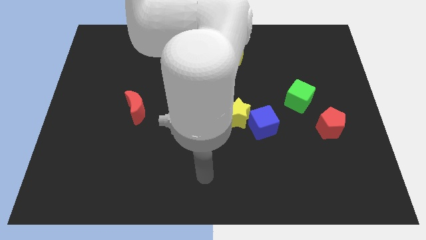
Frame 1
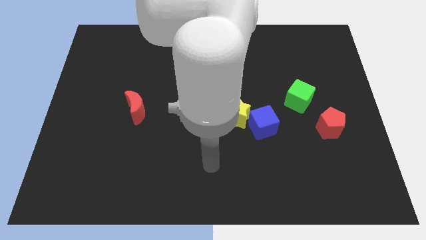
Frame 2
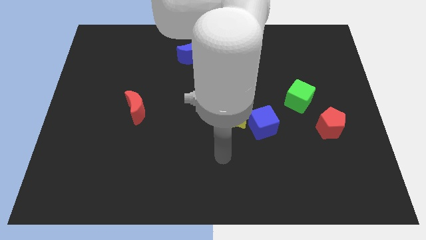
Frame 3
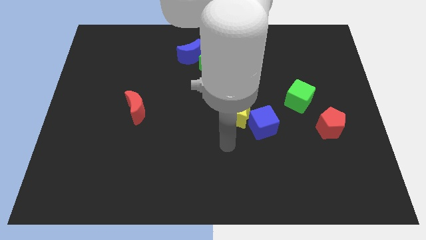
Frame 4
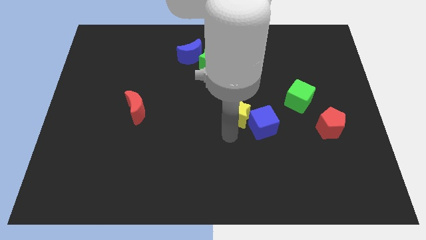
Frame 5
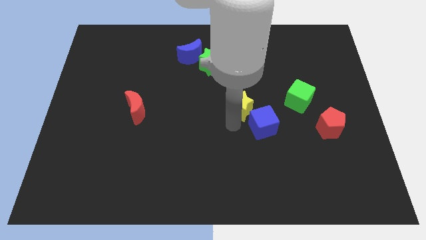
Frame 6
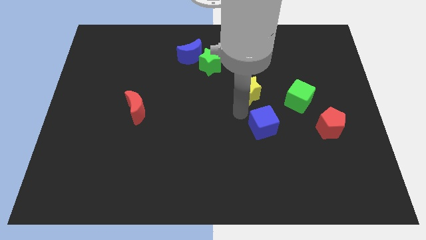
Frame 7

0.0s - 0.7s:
pull the blue cube apart from the yellow star

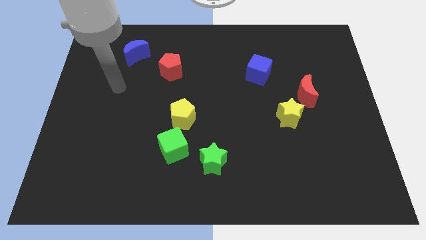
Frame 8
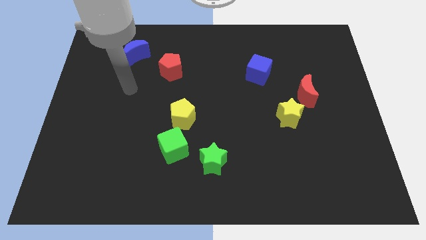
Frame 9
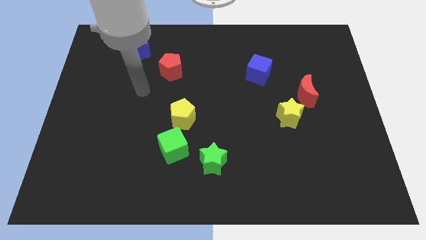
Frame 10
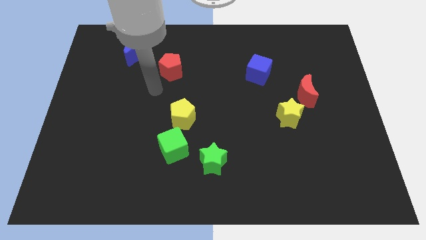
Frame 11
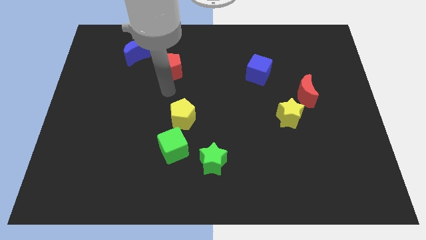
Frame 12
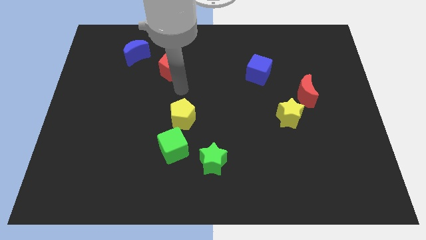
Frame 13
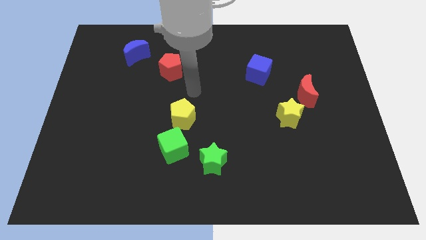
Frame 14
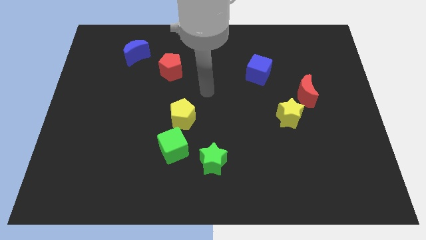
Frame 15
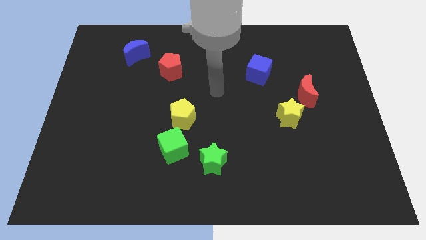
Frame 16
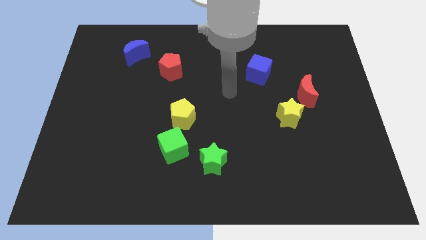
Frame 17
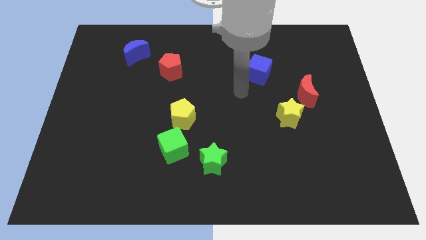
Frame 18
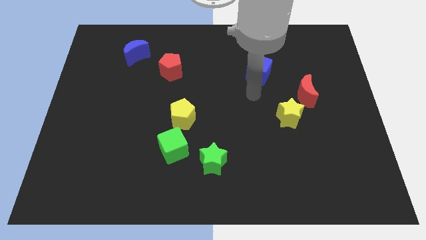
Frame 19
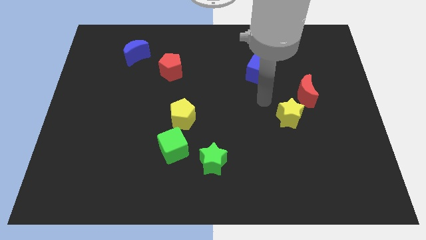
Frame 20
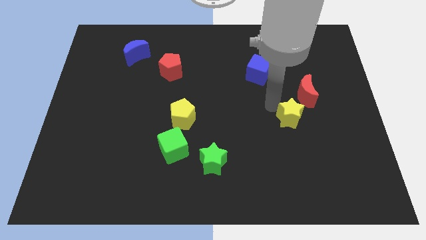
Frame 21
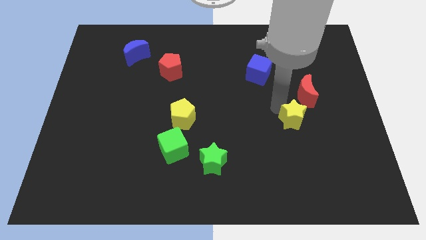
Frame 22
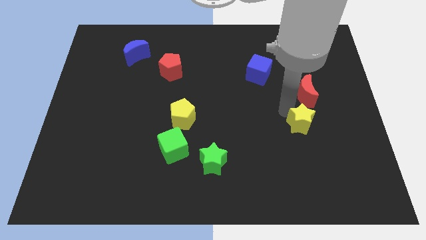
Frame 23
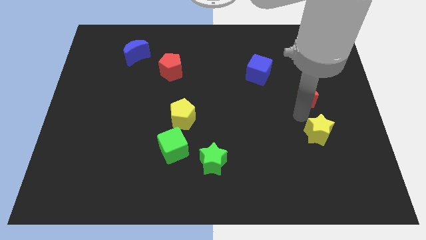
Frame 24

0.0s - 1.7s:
separate the red moon from the yellow star

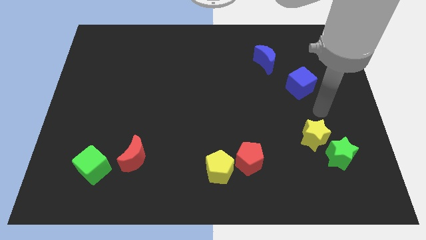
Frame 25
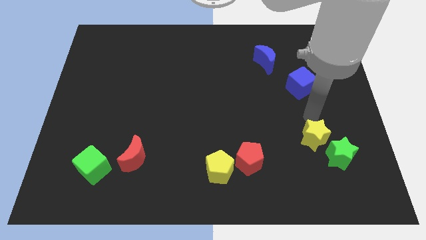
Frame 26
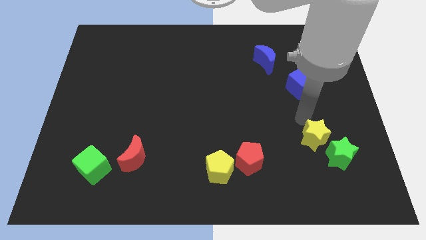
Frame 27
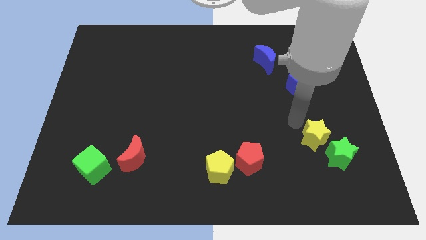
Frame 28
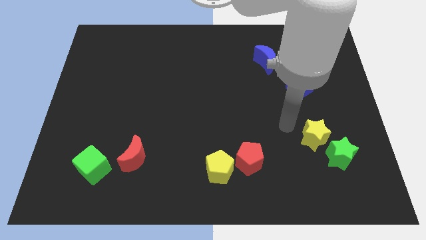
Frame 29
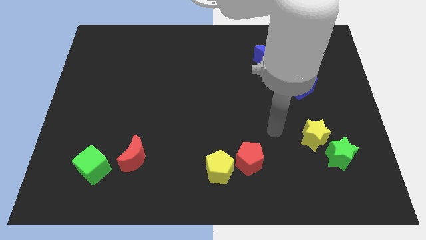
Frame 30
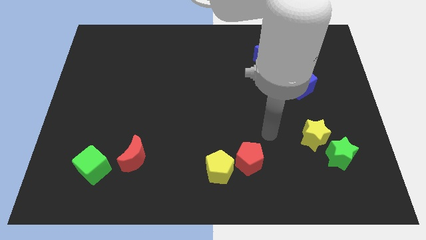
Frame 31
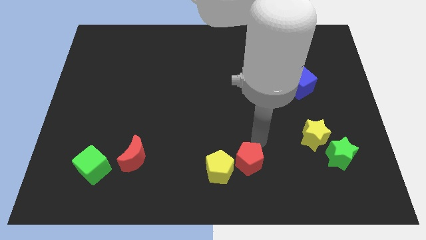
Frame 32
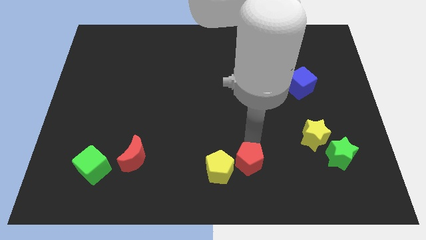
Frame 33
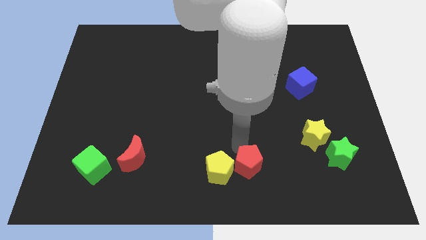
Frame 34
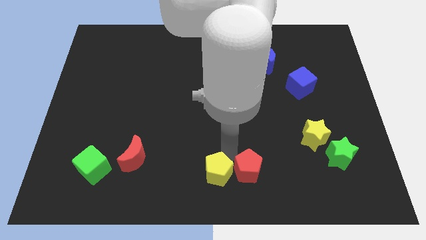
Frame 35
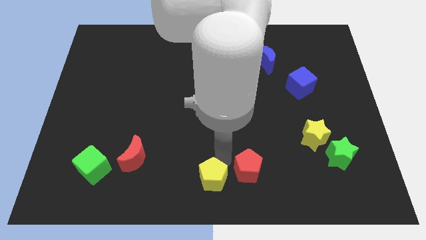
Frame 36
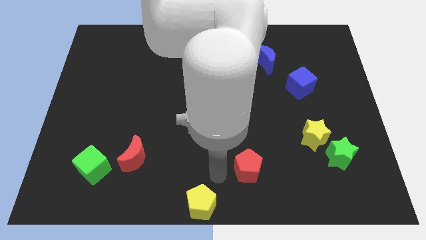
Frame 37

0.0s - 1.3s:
separate the red pentagon from the yellow pentagon

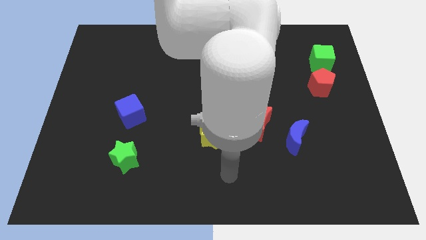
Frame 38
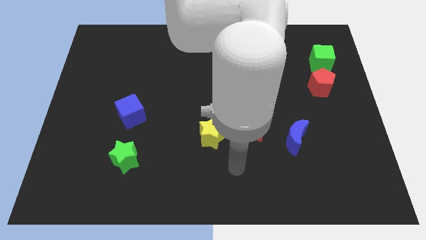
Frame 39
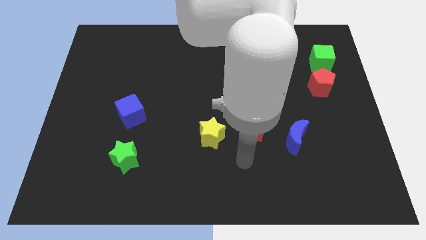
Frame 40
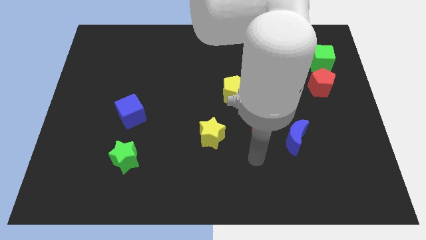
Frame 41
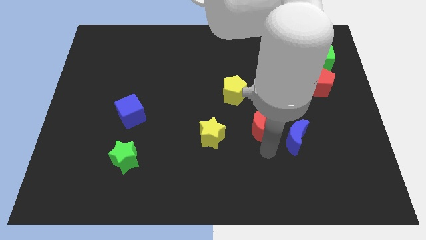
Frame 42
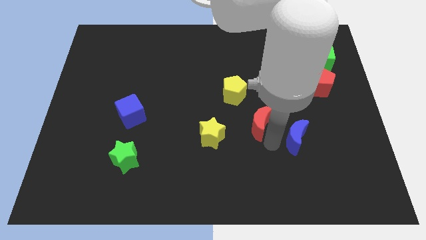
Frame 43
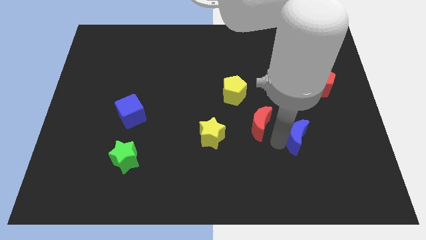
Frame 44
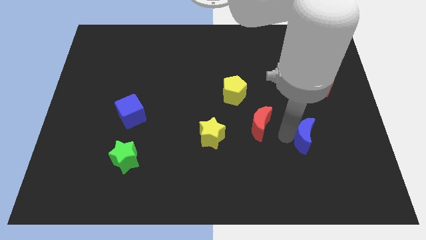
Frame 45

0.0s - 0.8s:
move the red moon away from the blue moon

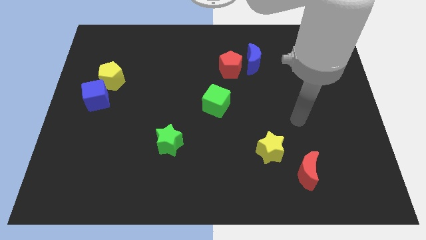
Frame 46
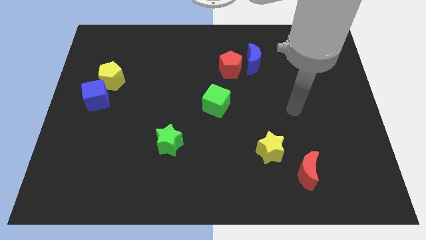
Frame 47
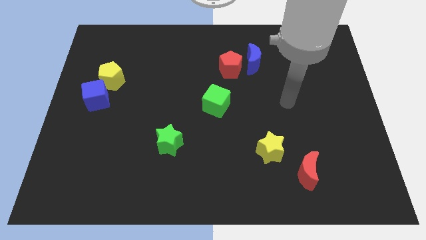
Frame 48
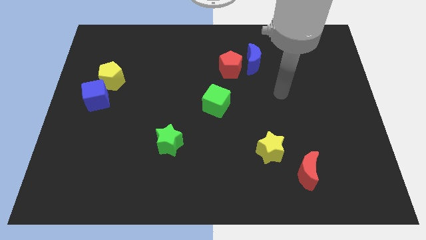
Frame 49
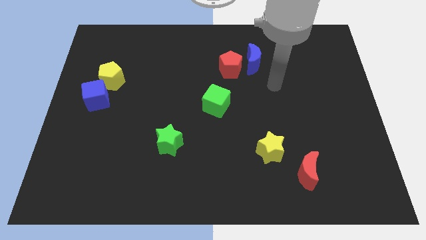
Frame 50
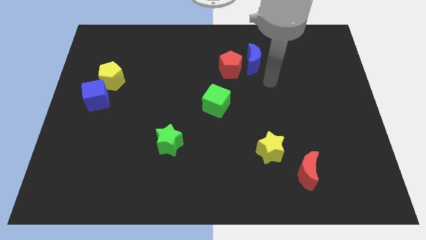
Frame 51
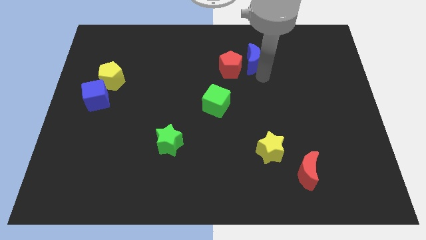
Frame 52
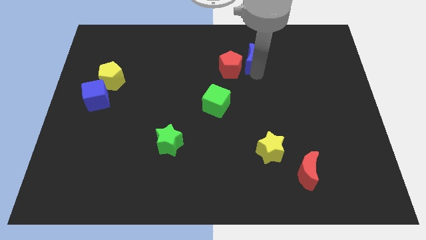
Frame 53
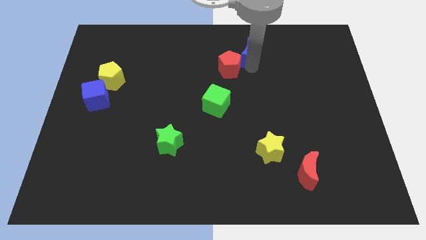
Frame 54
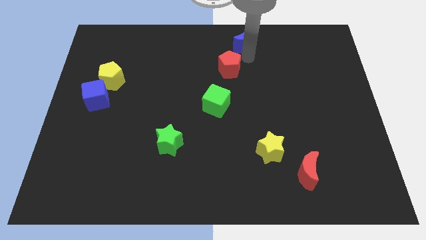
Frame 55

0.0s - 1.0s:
move the red pentagon away from the blue moon

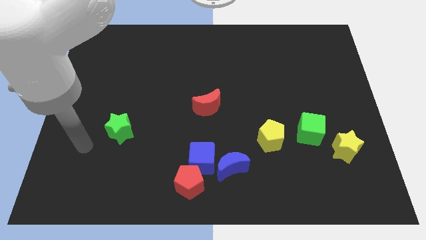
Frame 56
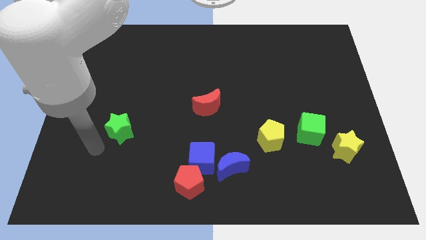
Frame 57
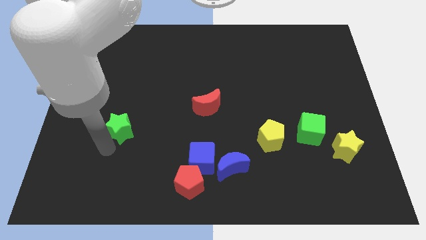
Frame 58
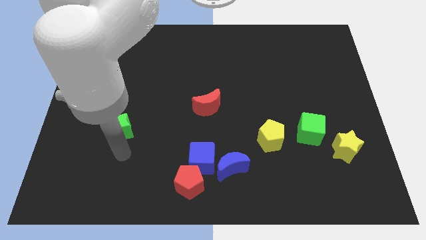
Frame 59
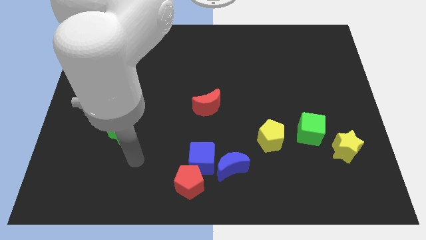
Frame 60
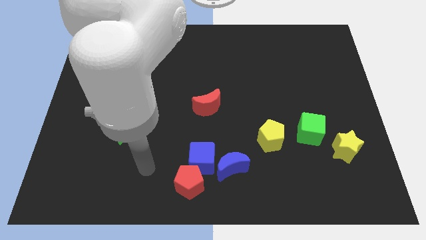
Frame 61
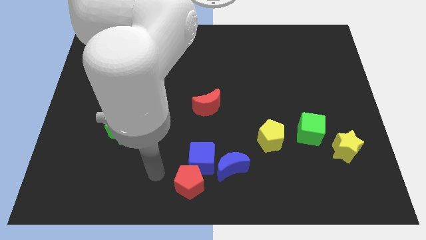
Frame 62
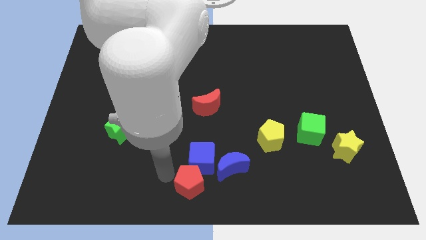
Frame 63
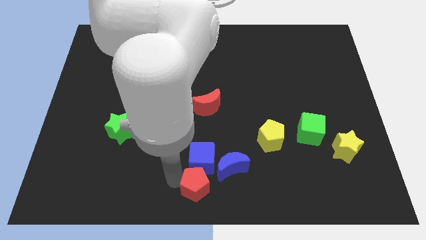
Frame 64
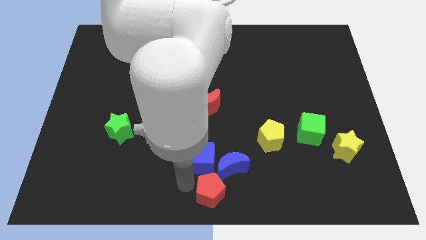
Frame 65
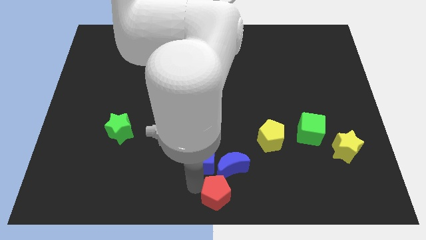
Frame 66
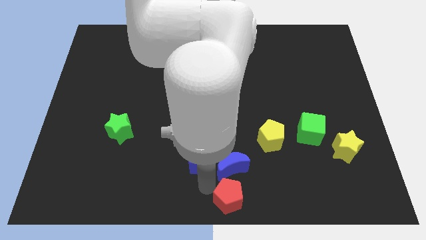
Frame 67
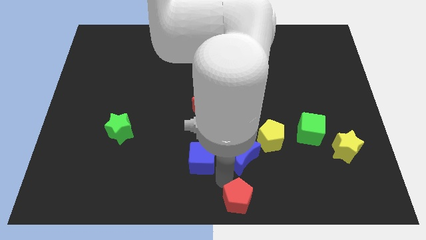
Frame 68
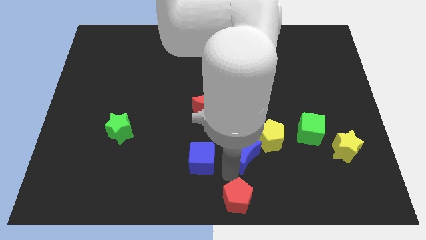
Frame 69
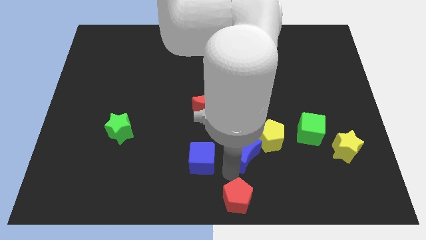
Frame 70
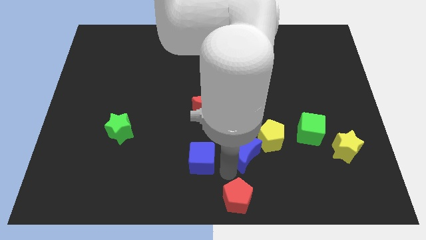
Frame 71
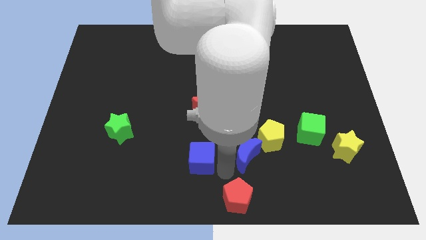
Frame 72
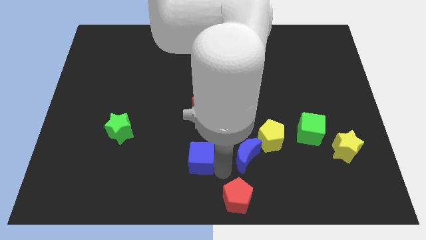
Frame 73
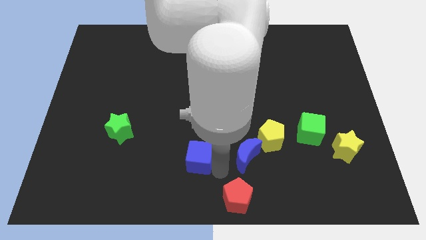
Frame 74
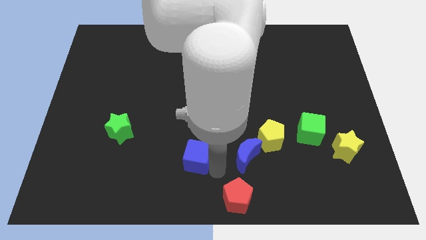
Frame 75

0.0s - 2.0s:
move the blue cube away from the red pentagon and blue moon

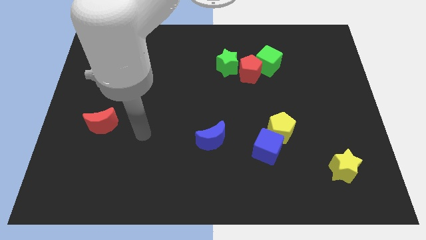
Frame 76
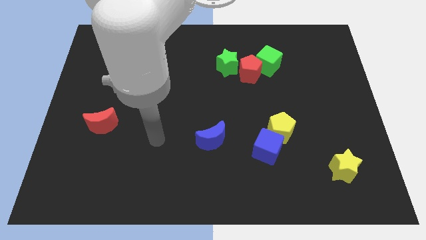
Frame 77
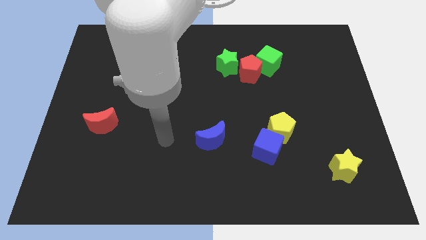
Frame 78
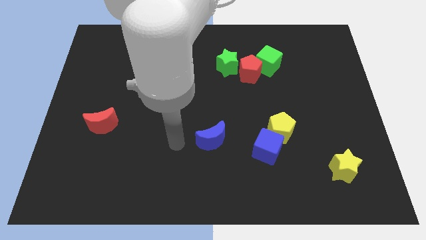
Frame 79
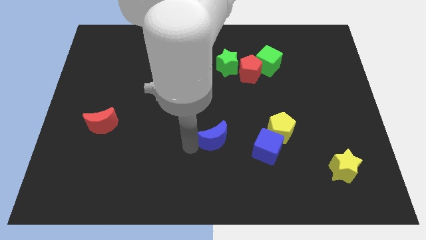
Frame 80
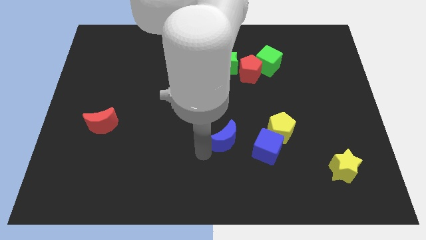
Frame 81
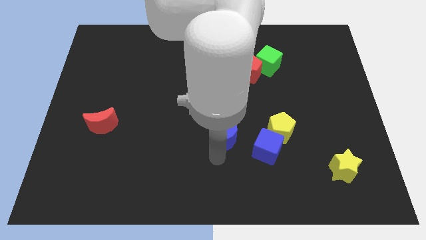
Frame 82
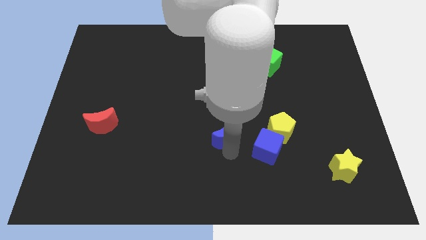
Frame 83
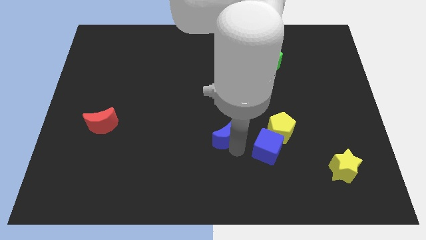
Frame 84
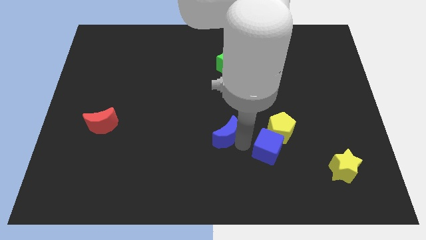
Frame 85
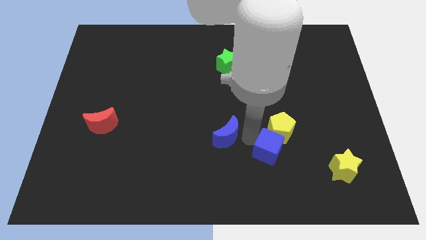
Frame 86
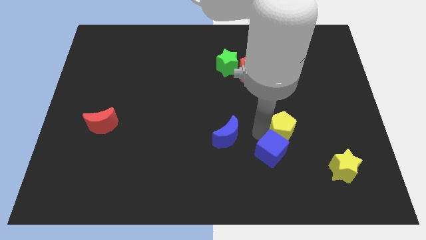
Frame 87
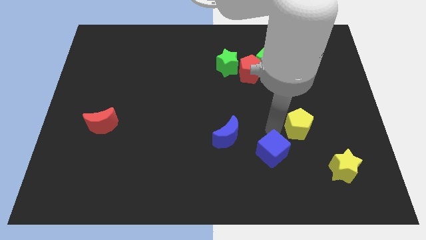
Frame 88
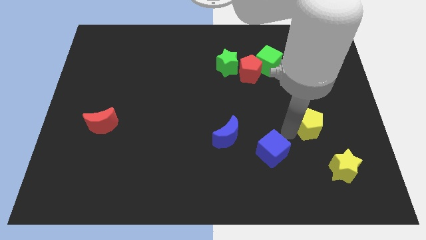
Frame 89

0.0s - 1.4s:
move the blue cube away from the yellow pentagon

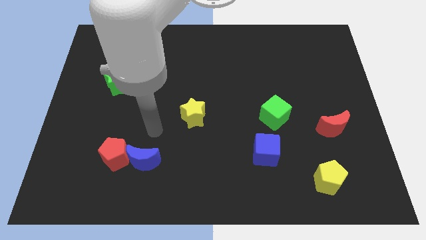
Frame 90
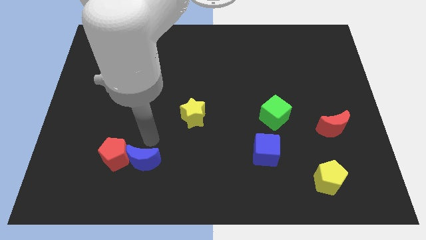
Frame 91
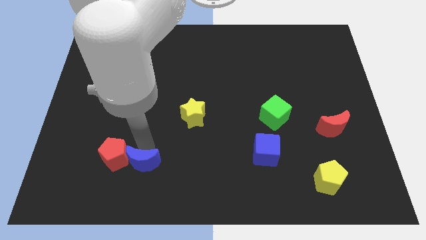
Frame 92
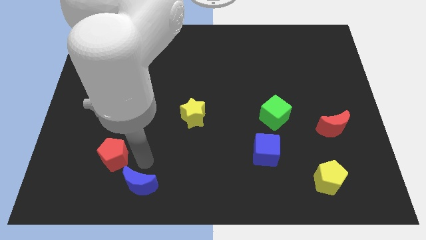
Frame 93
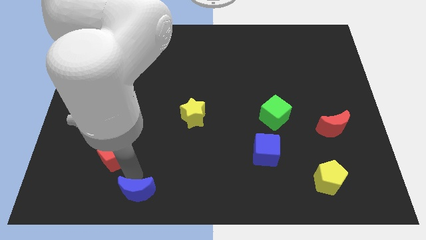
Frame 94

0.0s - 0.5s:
pull the red pentagon apart from the blue moon
